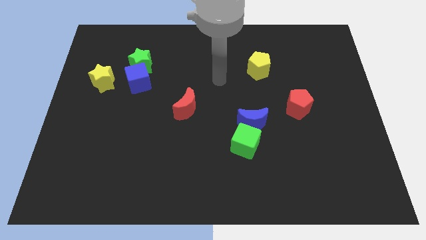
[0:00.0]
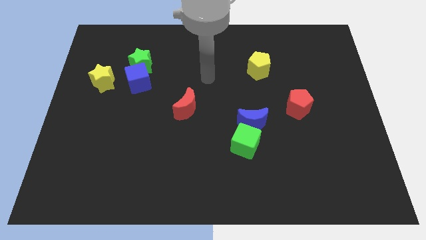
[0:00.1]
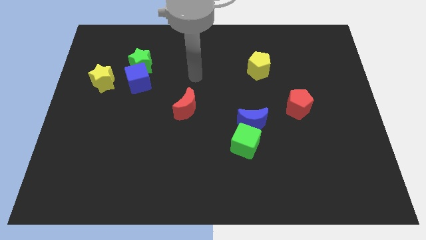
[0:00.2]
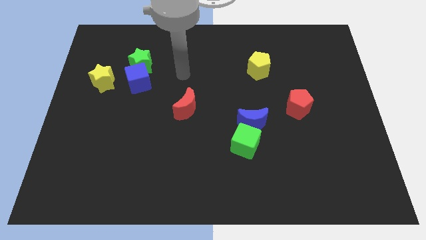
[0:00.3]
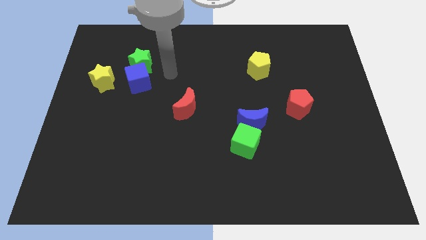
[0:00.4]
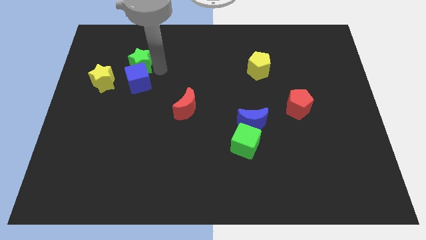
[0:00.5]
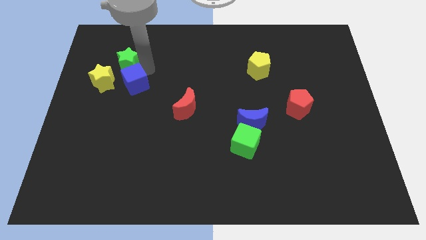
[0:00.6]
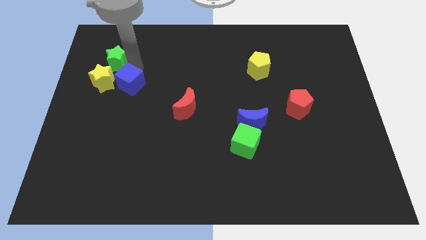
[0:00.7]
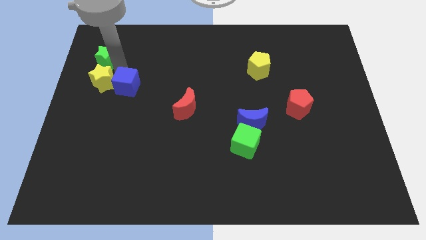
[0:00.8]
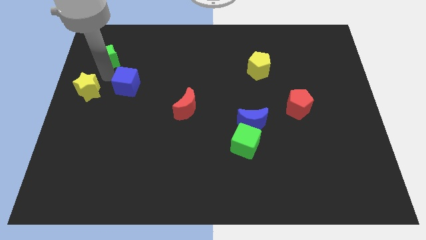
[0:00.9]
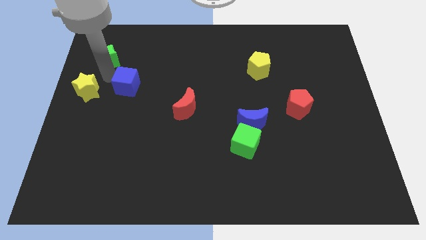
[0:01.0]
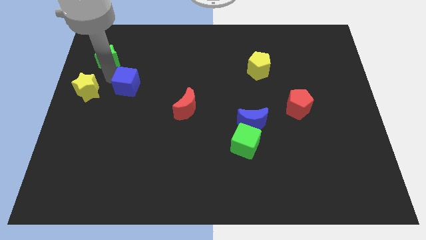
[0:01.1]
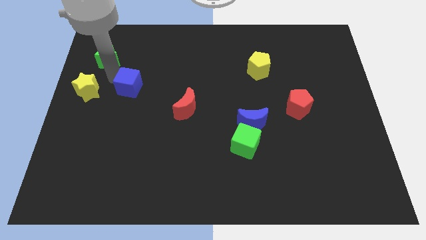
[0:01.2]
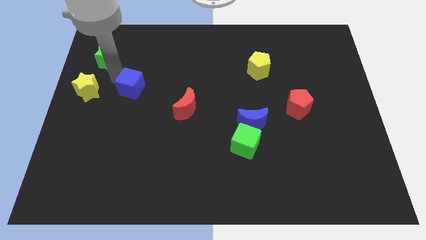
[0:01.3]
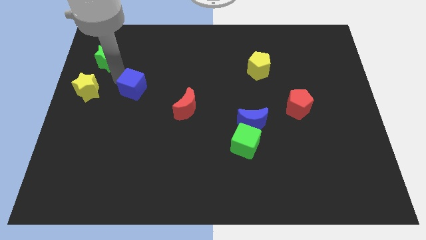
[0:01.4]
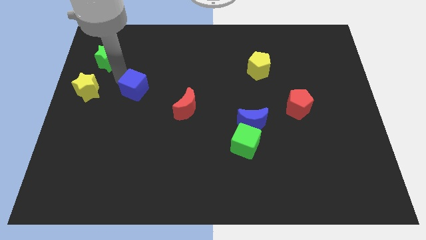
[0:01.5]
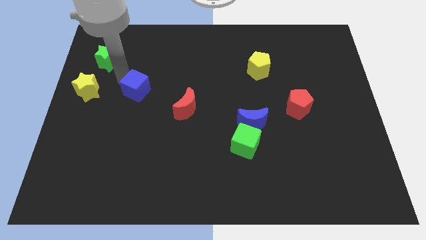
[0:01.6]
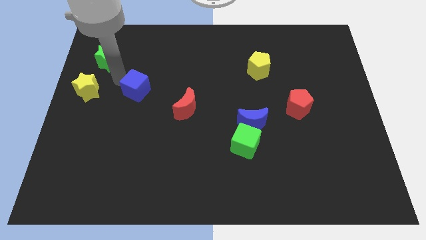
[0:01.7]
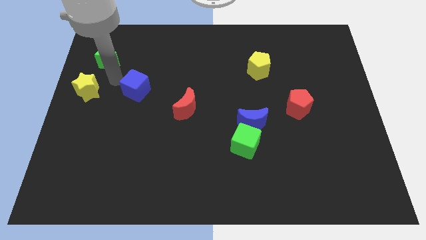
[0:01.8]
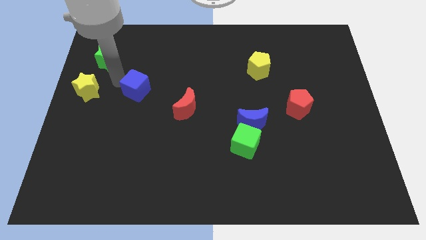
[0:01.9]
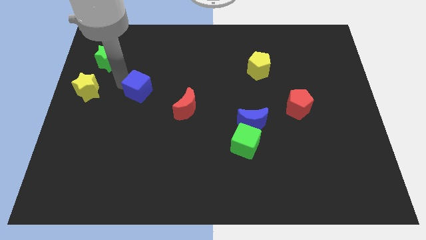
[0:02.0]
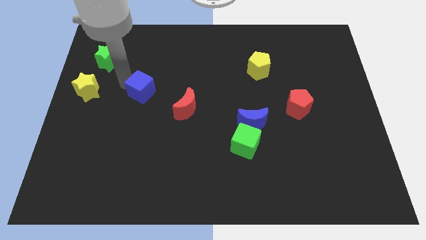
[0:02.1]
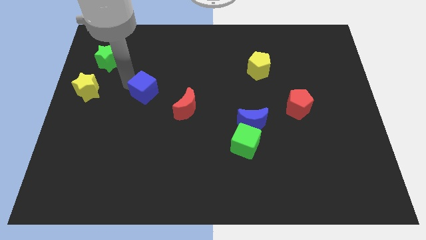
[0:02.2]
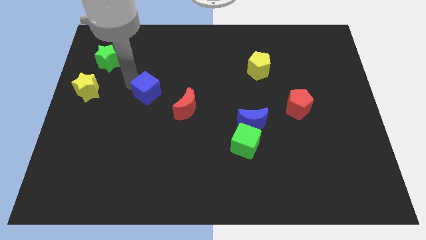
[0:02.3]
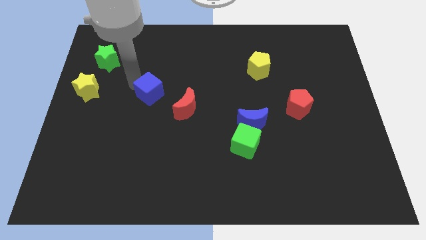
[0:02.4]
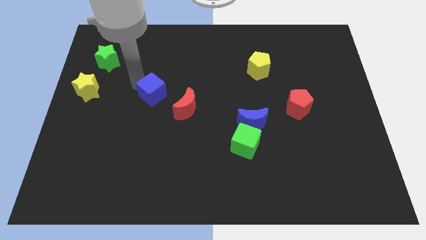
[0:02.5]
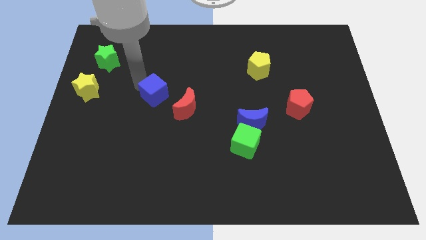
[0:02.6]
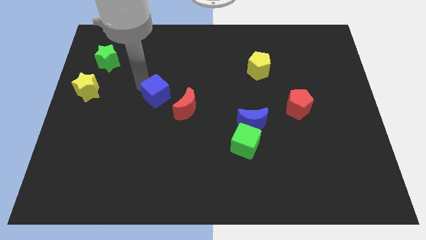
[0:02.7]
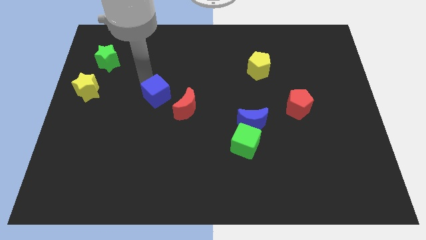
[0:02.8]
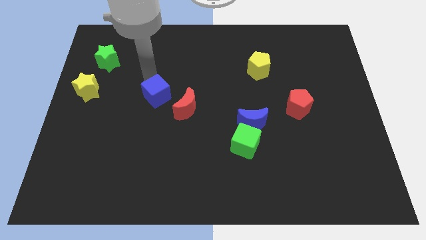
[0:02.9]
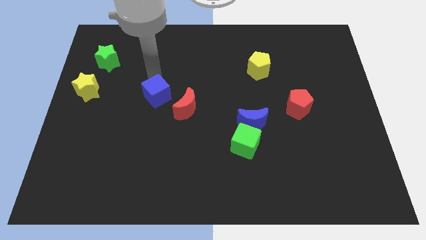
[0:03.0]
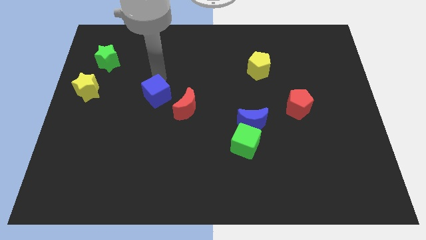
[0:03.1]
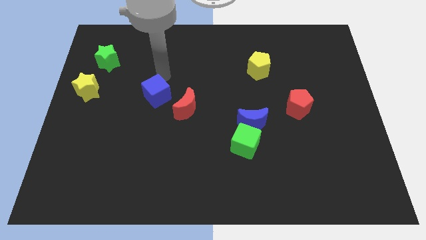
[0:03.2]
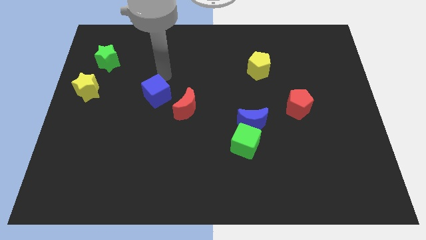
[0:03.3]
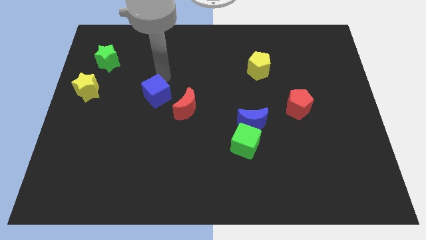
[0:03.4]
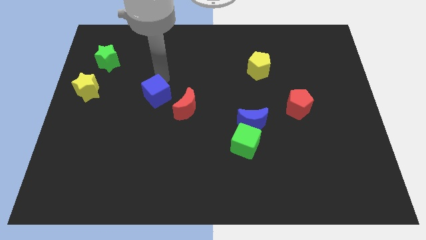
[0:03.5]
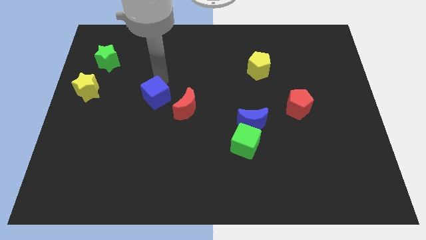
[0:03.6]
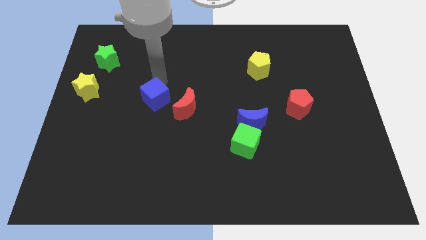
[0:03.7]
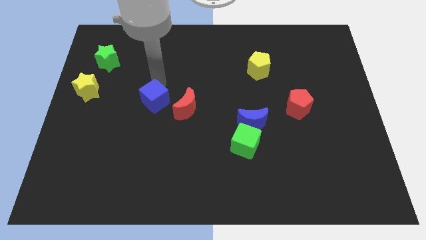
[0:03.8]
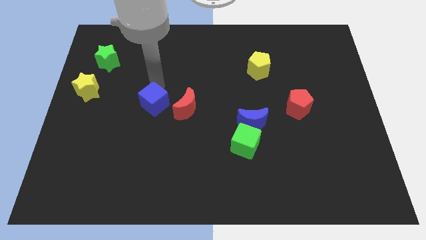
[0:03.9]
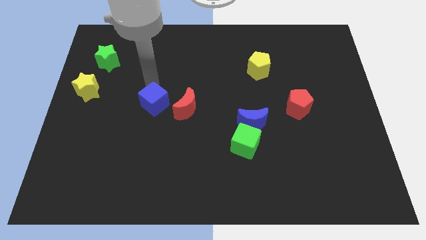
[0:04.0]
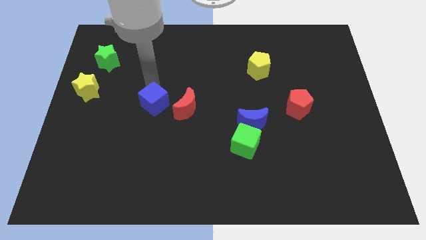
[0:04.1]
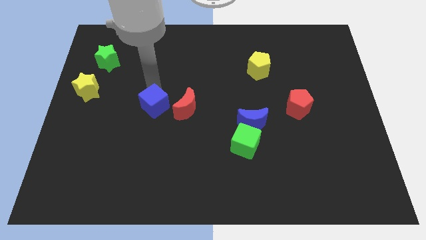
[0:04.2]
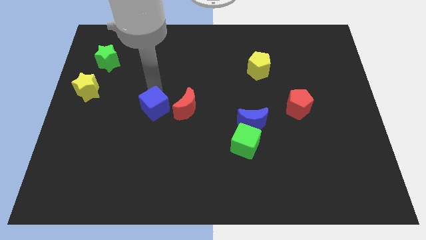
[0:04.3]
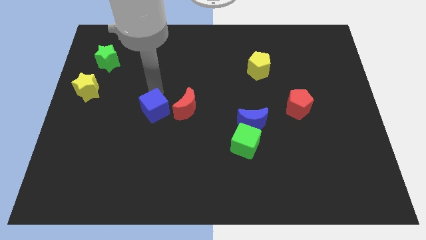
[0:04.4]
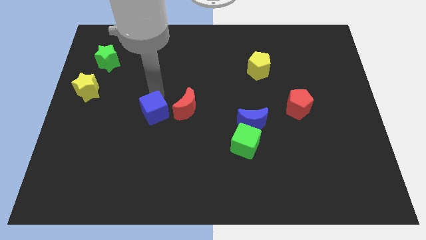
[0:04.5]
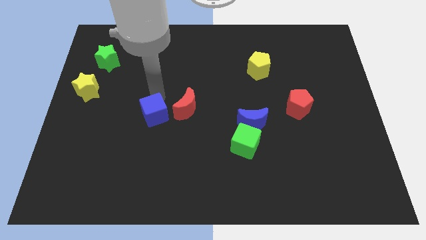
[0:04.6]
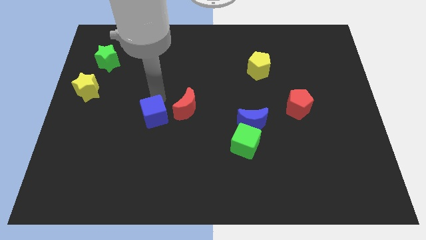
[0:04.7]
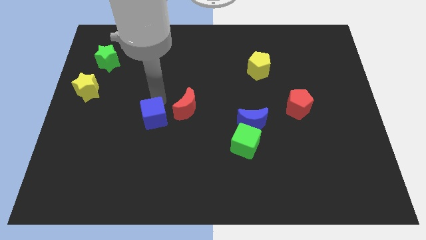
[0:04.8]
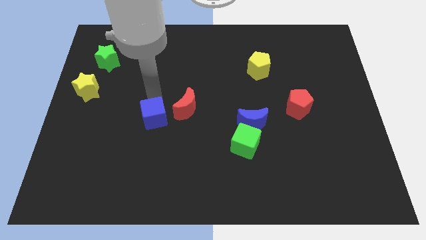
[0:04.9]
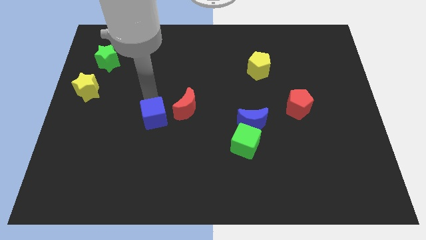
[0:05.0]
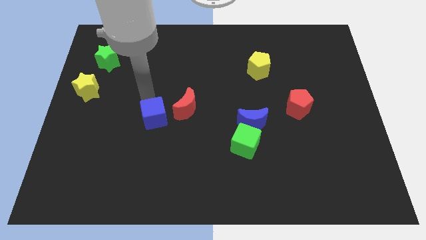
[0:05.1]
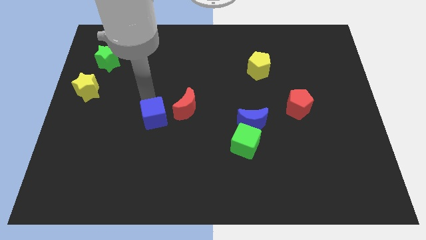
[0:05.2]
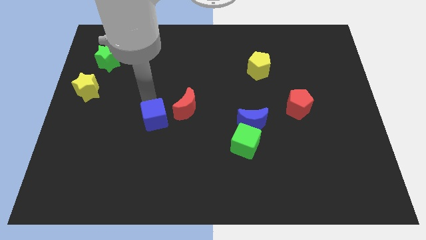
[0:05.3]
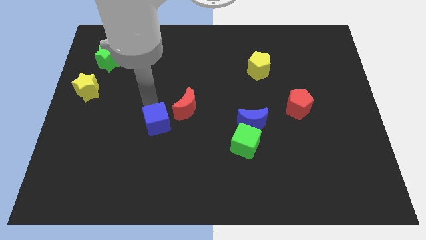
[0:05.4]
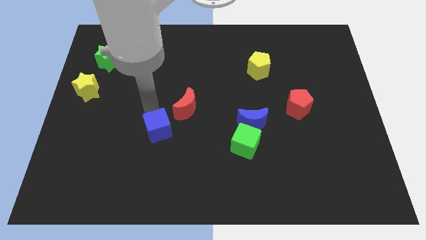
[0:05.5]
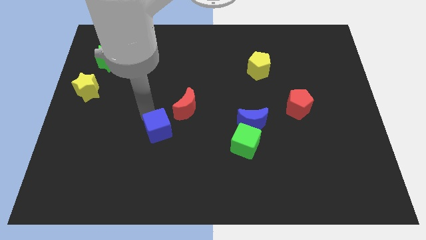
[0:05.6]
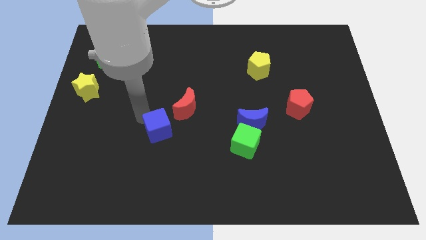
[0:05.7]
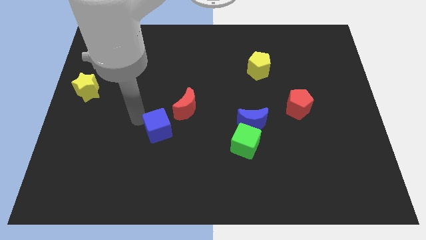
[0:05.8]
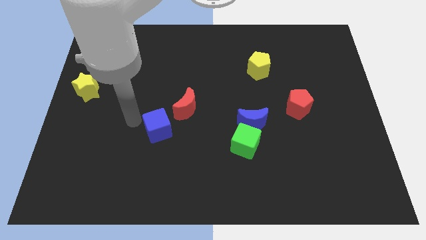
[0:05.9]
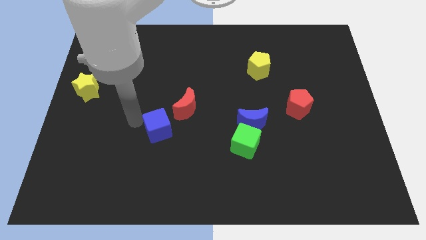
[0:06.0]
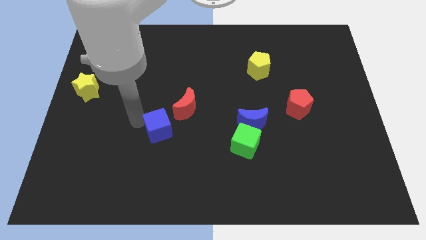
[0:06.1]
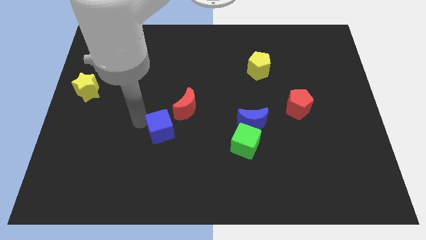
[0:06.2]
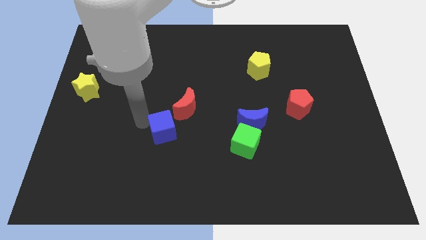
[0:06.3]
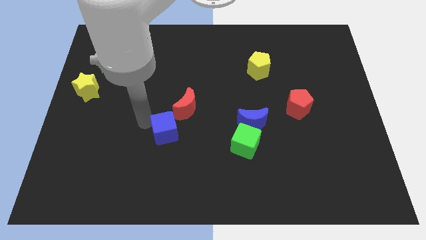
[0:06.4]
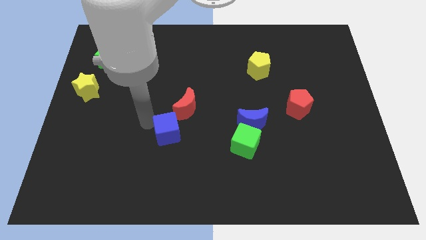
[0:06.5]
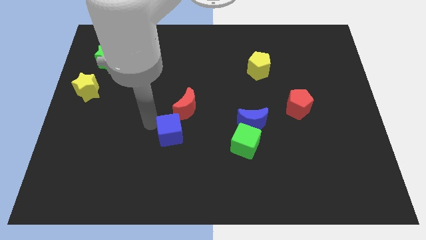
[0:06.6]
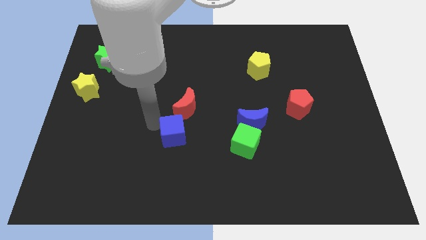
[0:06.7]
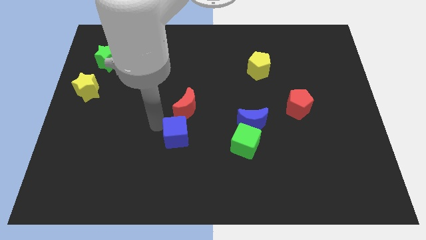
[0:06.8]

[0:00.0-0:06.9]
move the blue cube left of the green cube

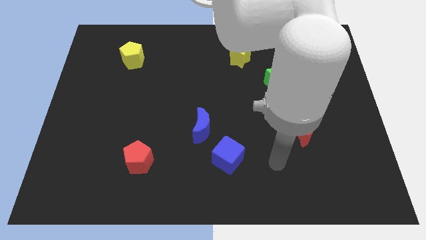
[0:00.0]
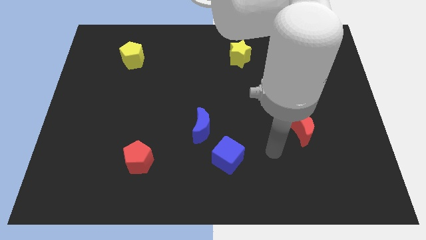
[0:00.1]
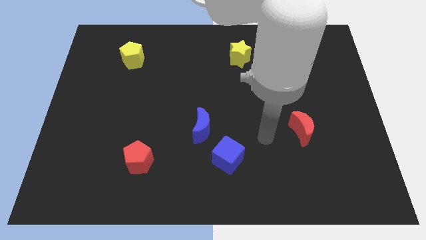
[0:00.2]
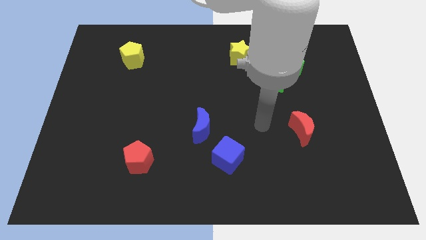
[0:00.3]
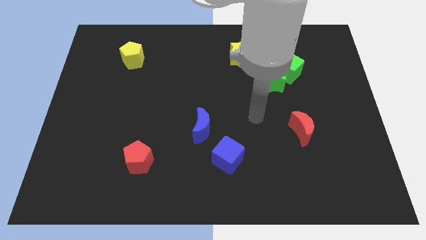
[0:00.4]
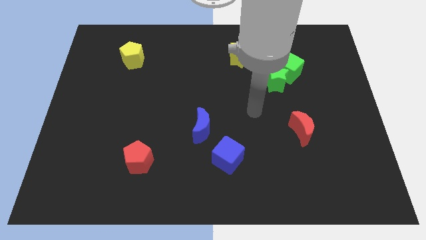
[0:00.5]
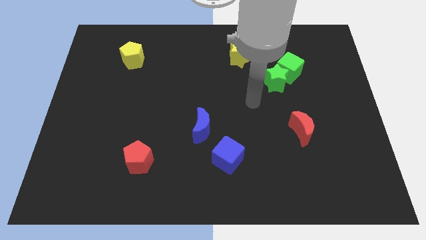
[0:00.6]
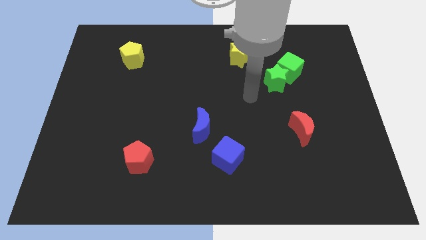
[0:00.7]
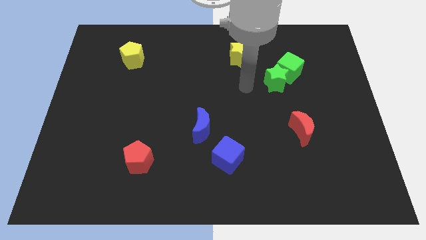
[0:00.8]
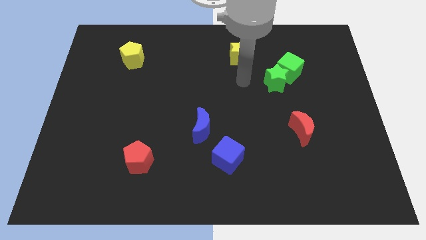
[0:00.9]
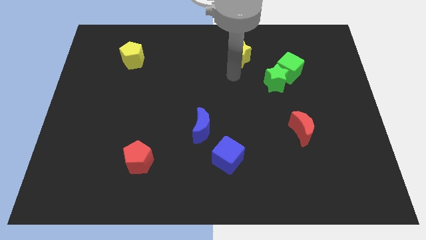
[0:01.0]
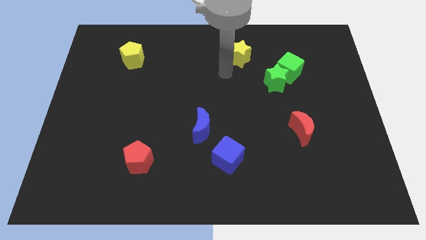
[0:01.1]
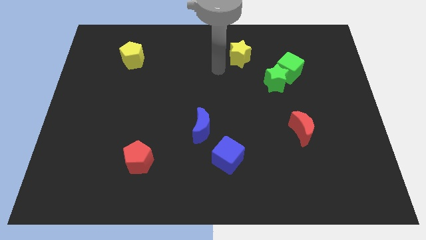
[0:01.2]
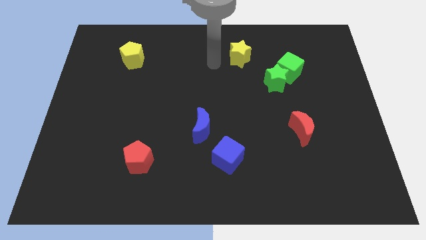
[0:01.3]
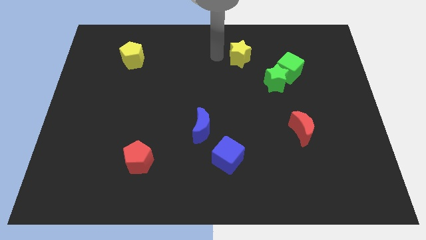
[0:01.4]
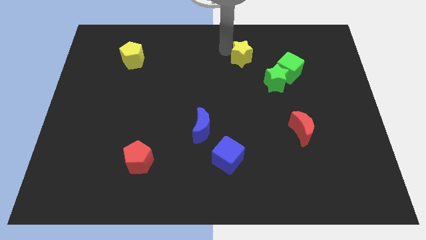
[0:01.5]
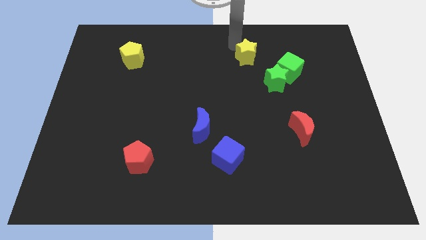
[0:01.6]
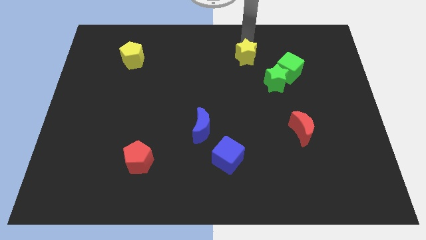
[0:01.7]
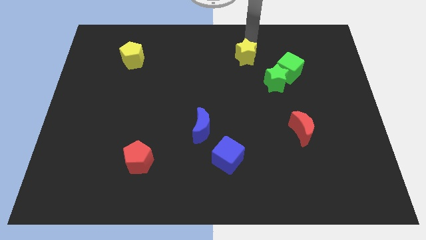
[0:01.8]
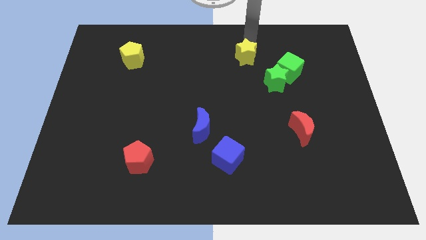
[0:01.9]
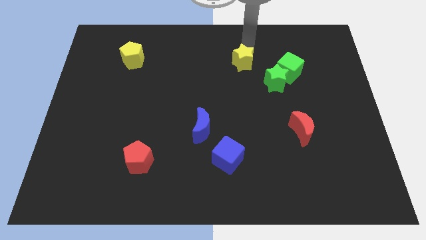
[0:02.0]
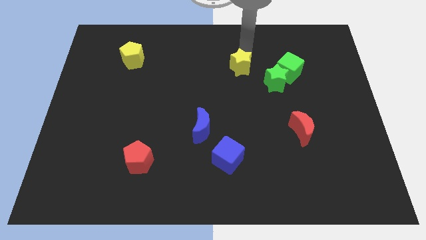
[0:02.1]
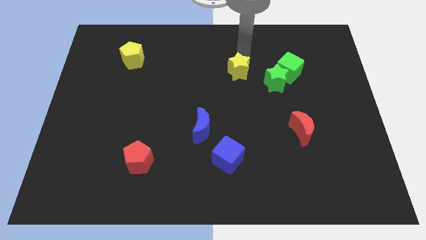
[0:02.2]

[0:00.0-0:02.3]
push the yellow star just left of the green star
